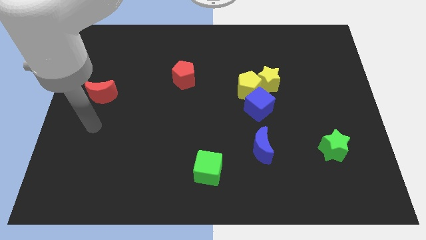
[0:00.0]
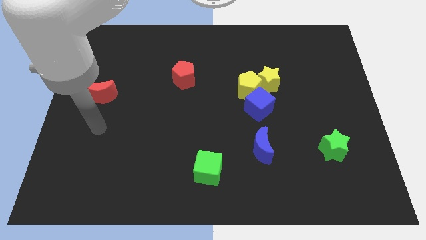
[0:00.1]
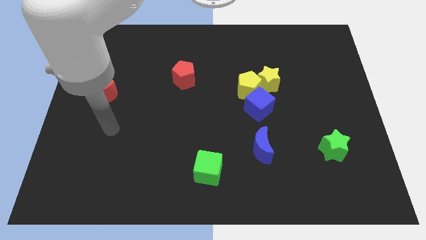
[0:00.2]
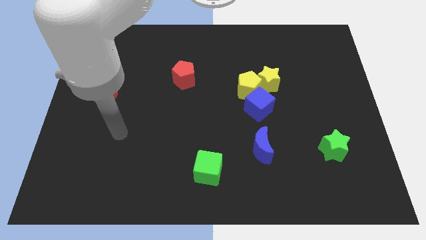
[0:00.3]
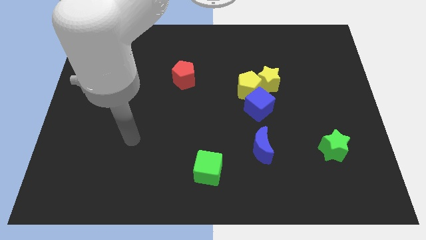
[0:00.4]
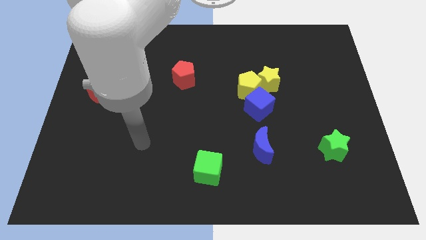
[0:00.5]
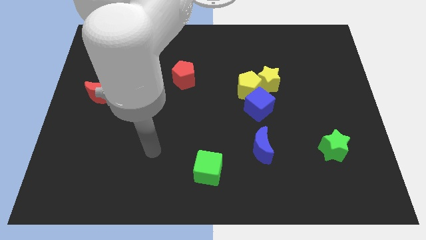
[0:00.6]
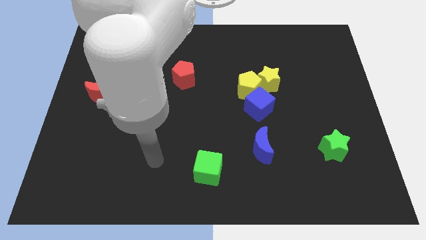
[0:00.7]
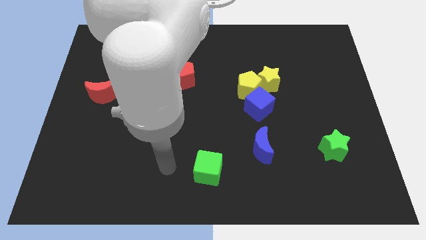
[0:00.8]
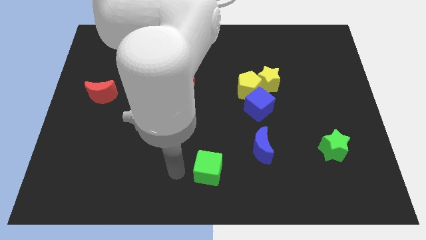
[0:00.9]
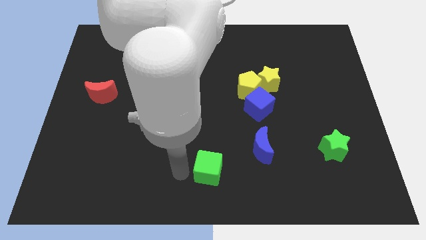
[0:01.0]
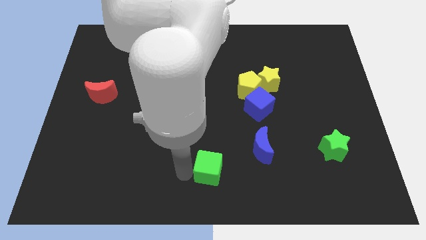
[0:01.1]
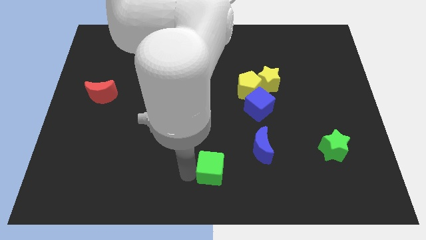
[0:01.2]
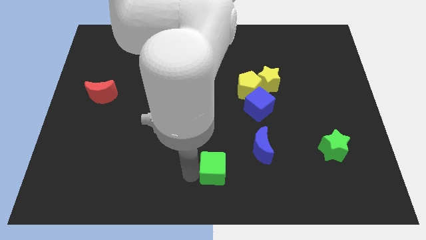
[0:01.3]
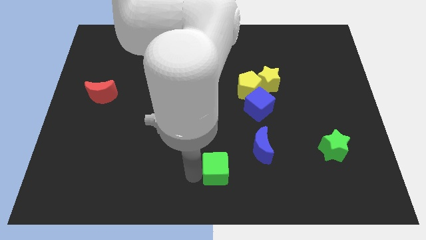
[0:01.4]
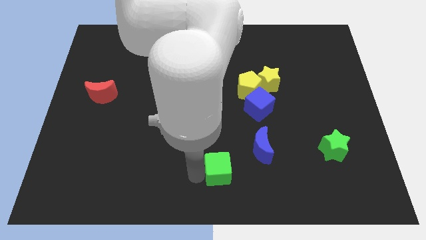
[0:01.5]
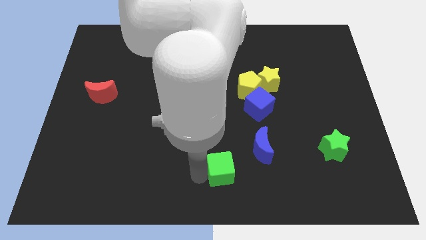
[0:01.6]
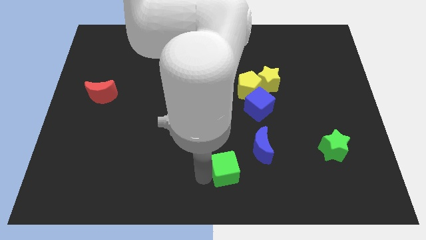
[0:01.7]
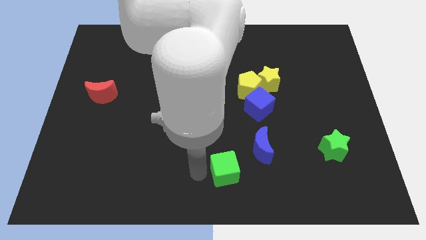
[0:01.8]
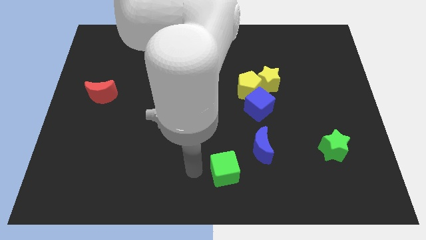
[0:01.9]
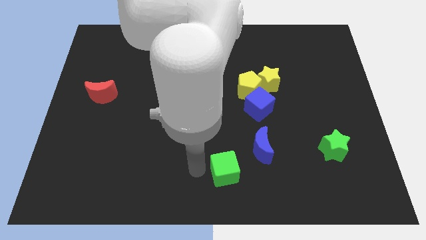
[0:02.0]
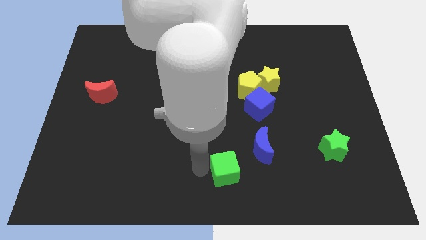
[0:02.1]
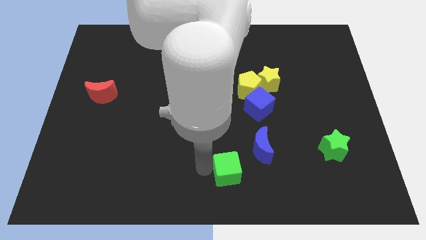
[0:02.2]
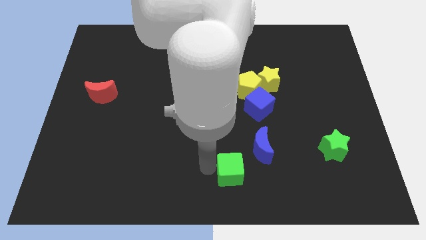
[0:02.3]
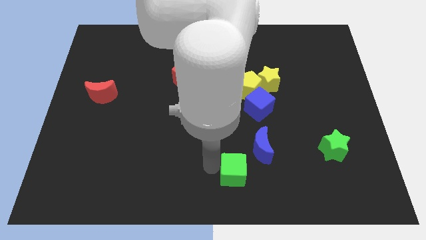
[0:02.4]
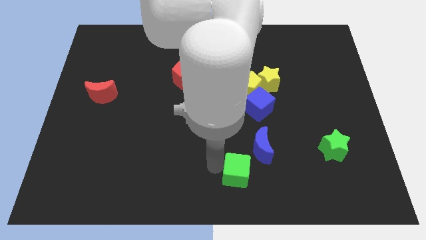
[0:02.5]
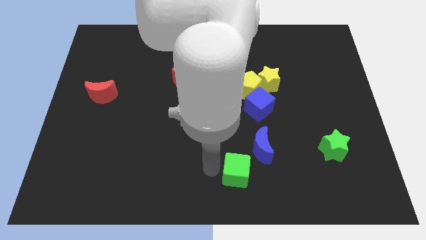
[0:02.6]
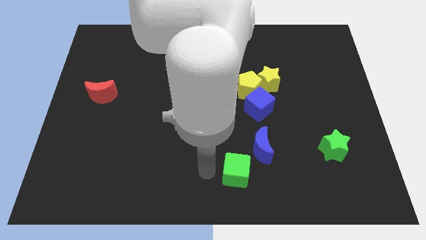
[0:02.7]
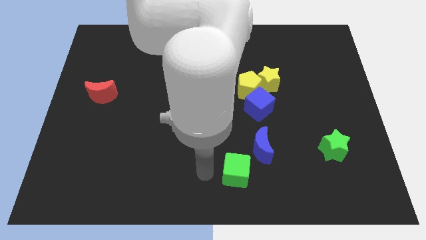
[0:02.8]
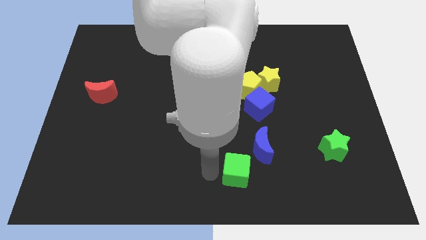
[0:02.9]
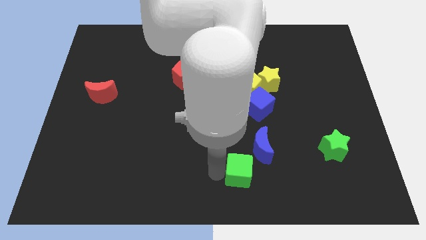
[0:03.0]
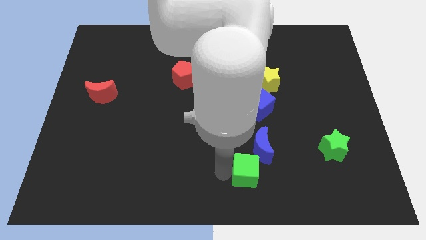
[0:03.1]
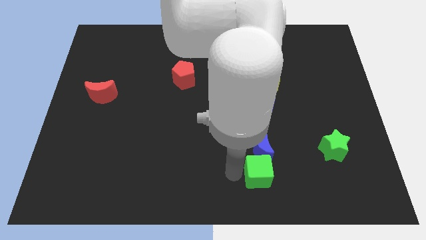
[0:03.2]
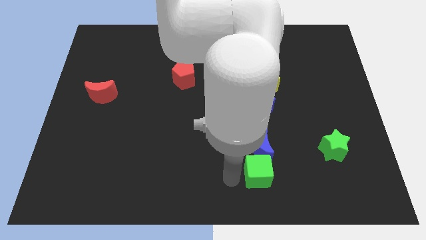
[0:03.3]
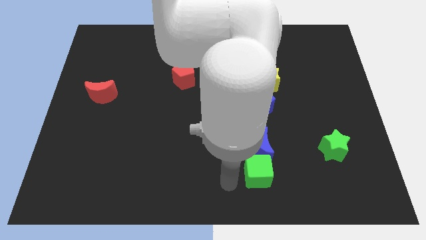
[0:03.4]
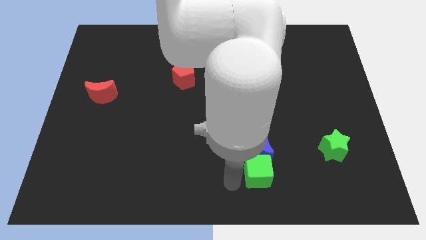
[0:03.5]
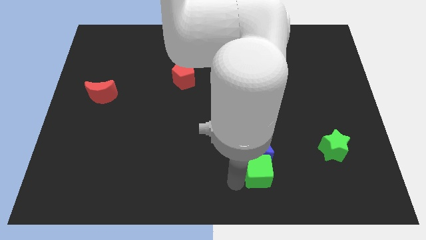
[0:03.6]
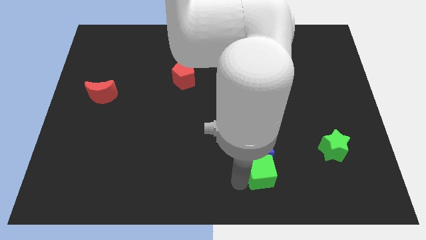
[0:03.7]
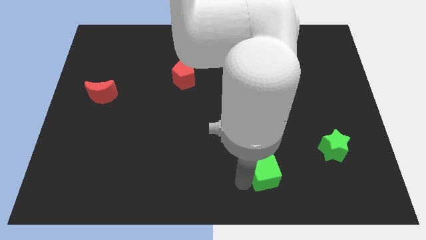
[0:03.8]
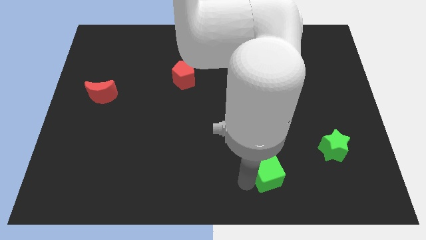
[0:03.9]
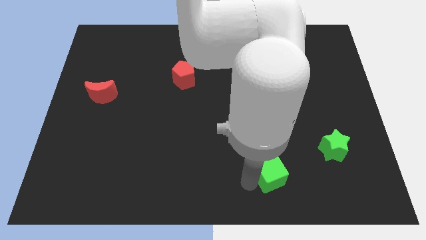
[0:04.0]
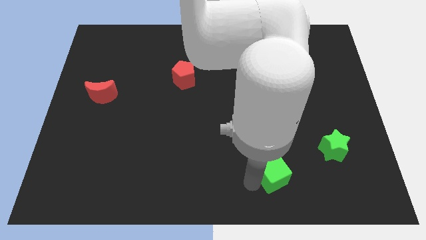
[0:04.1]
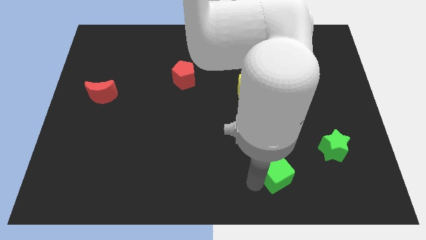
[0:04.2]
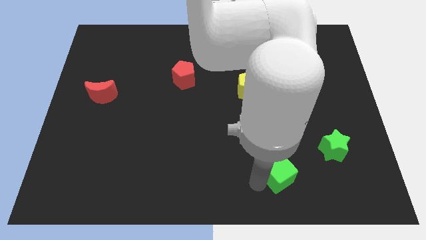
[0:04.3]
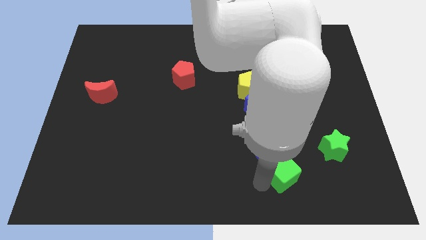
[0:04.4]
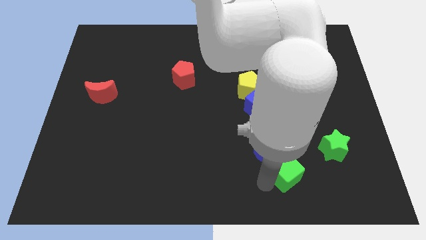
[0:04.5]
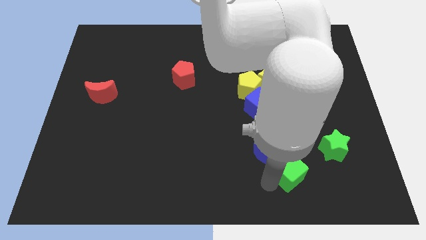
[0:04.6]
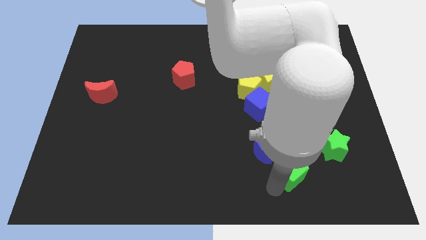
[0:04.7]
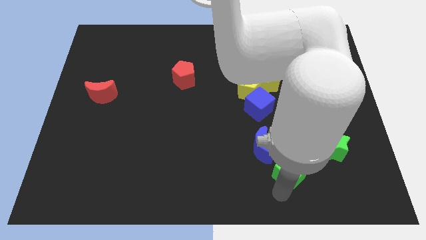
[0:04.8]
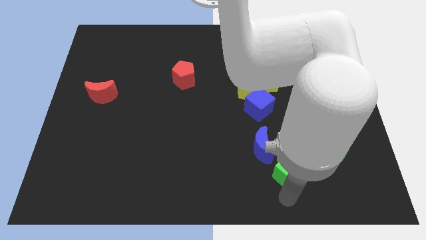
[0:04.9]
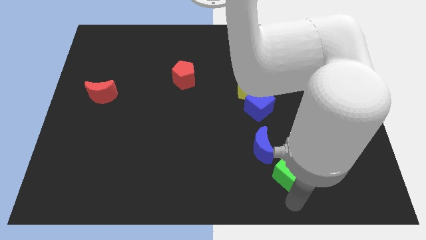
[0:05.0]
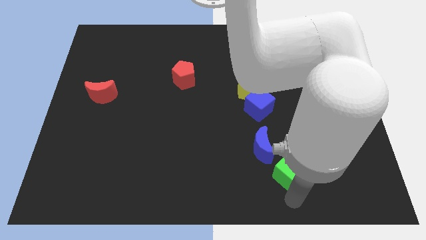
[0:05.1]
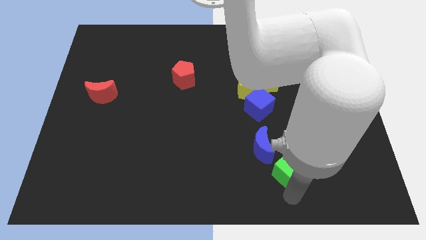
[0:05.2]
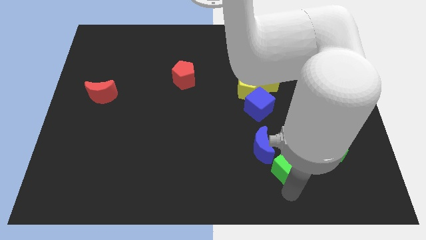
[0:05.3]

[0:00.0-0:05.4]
slide the green cube to the left side of the green star

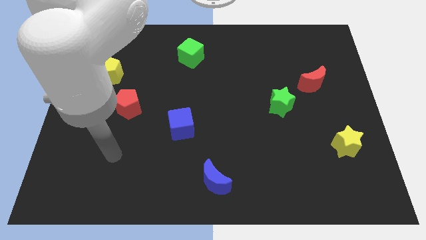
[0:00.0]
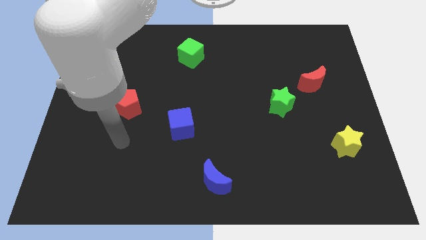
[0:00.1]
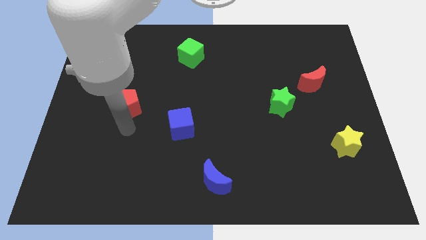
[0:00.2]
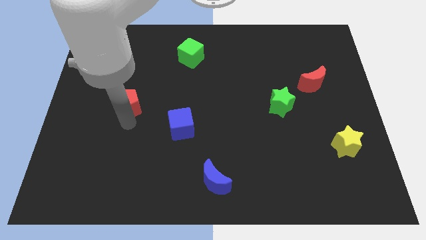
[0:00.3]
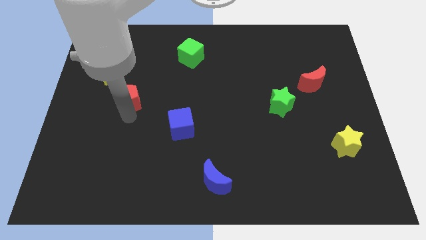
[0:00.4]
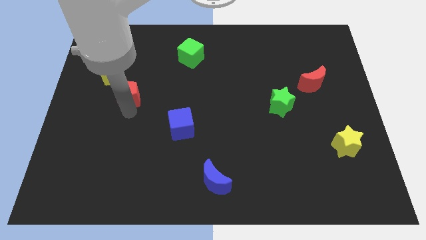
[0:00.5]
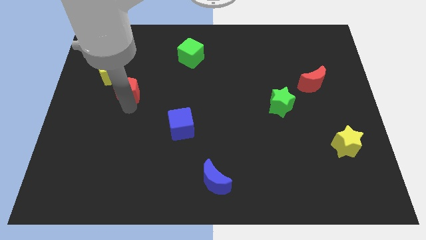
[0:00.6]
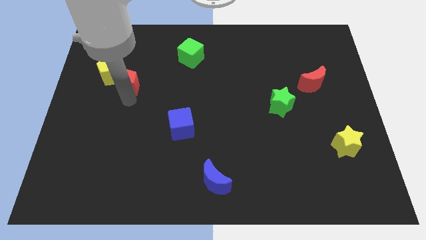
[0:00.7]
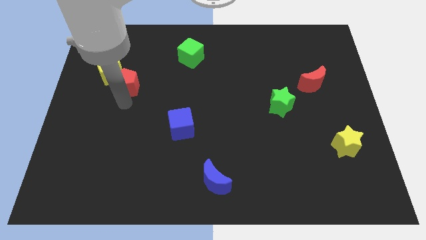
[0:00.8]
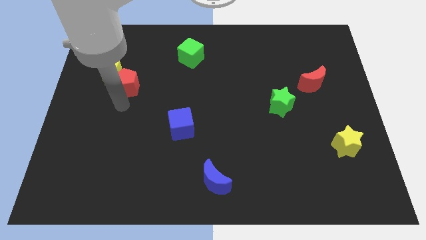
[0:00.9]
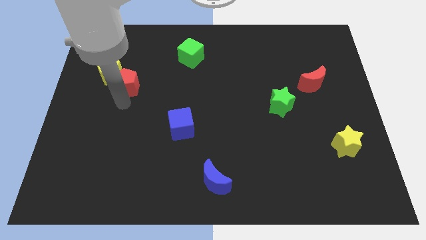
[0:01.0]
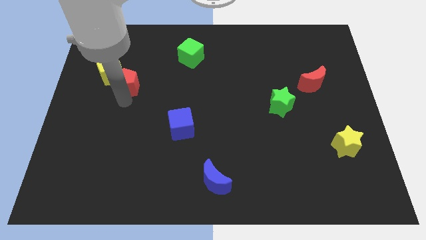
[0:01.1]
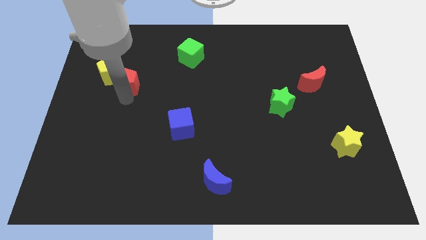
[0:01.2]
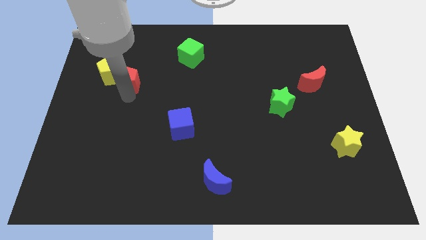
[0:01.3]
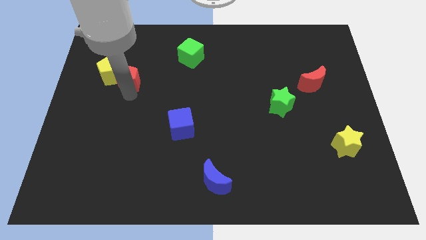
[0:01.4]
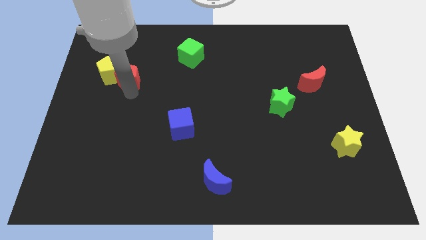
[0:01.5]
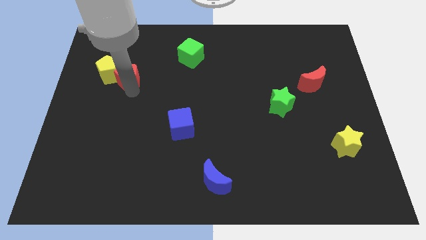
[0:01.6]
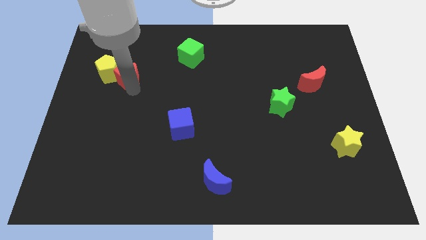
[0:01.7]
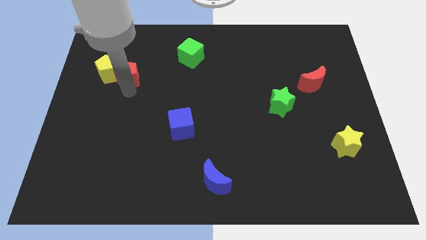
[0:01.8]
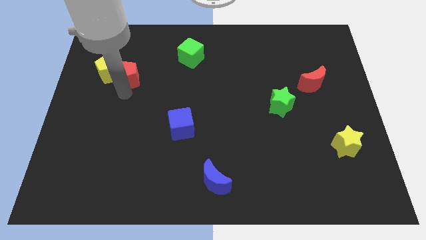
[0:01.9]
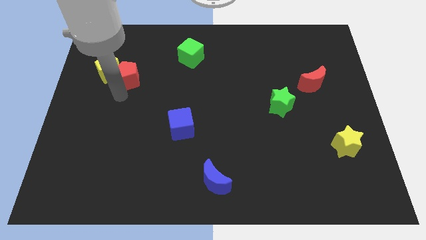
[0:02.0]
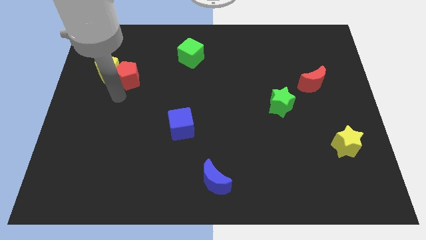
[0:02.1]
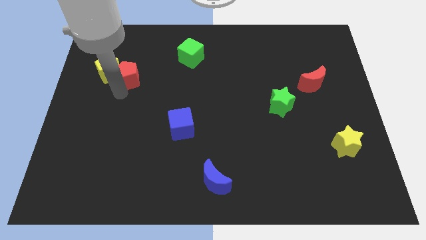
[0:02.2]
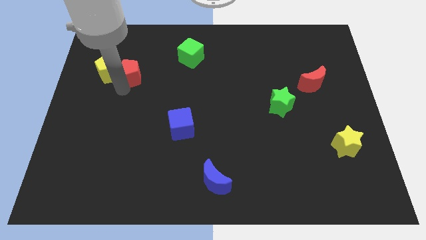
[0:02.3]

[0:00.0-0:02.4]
slide the red pentagon to the top right of the yellow pentagon
